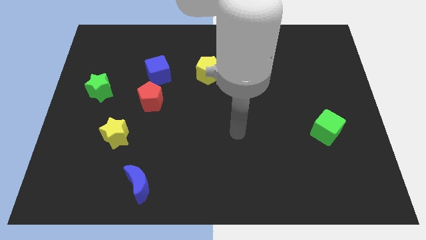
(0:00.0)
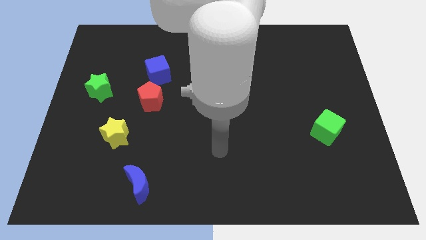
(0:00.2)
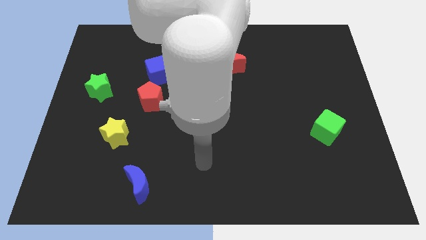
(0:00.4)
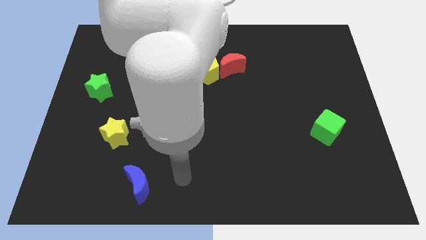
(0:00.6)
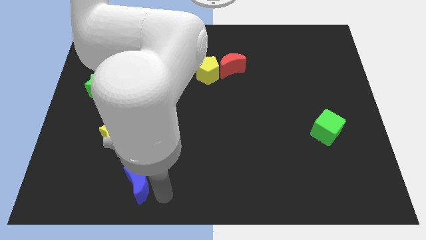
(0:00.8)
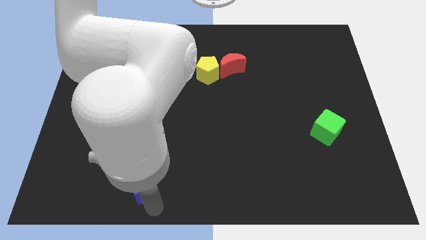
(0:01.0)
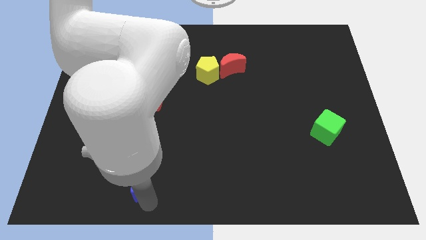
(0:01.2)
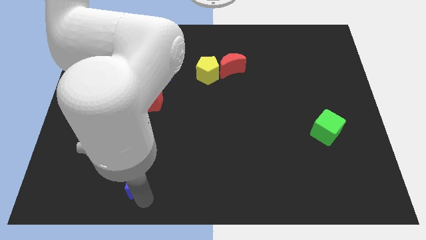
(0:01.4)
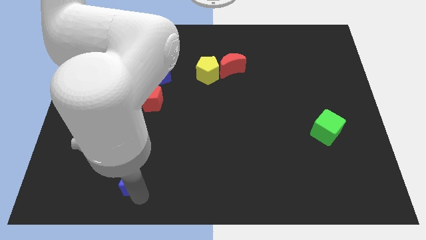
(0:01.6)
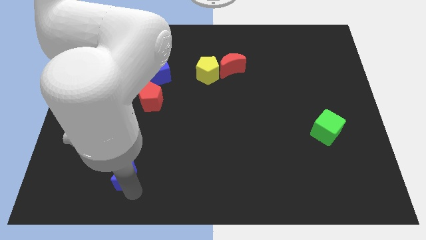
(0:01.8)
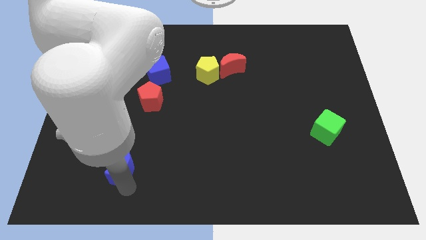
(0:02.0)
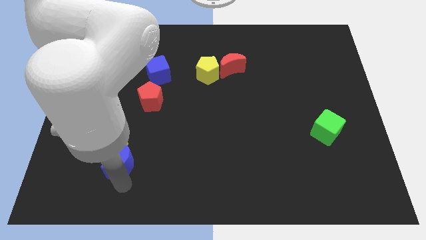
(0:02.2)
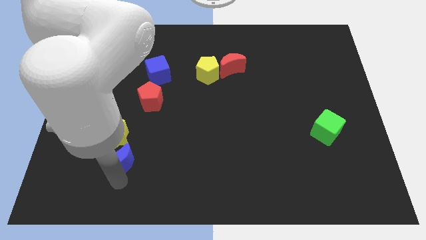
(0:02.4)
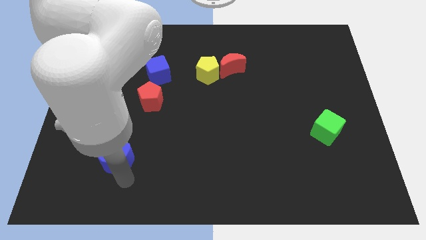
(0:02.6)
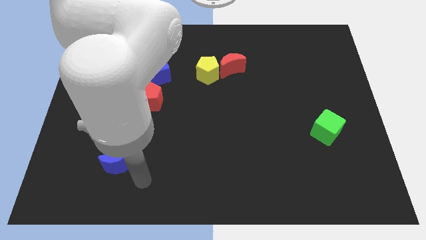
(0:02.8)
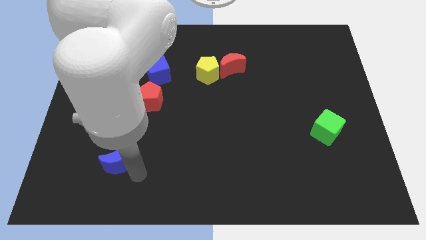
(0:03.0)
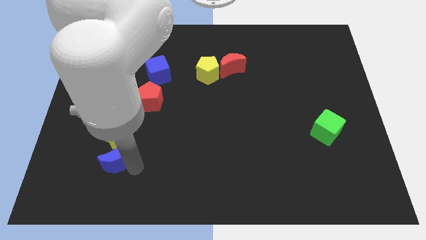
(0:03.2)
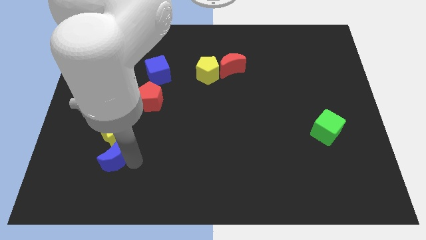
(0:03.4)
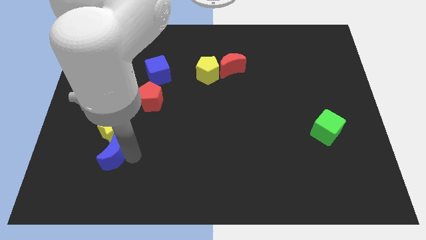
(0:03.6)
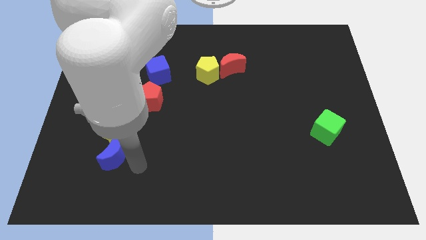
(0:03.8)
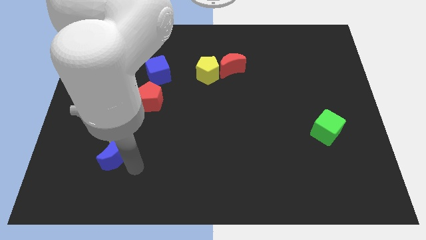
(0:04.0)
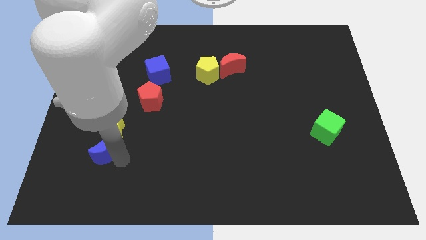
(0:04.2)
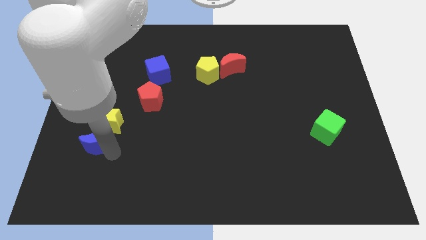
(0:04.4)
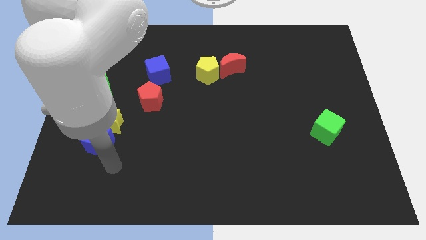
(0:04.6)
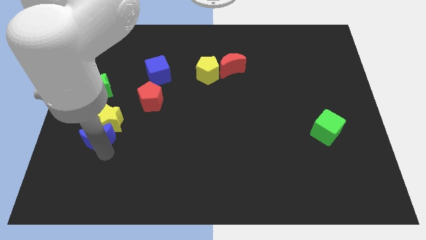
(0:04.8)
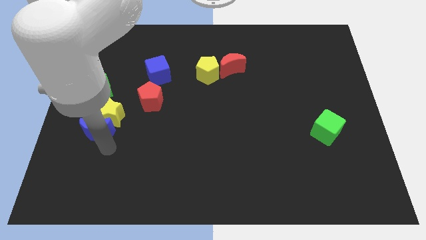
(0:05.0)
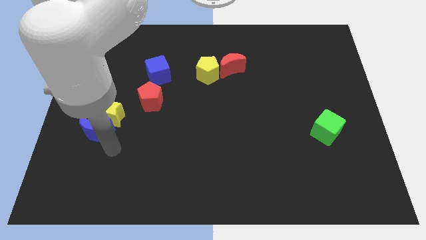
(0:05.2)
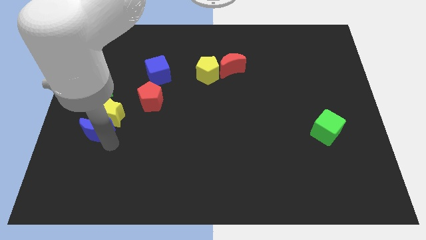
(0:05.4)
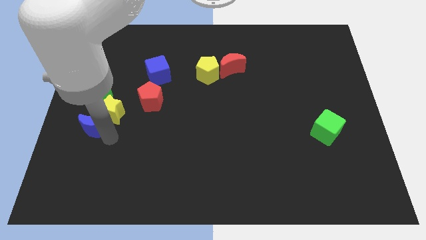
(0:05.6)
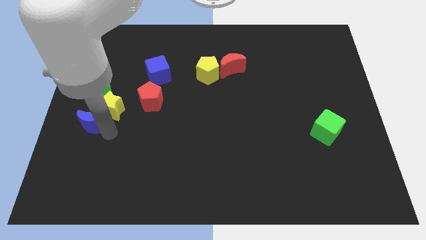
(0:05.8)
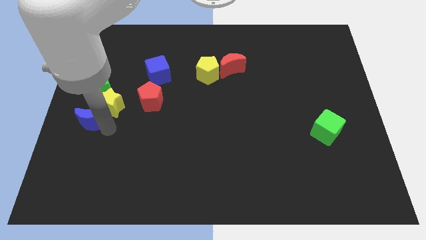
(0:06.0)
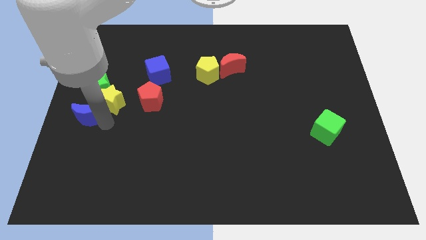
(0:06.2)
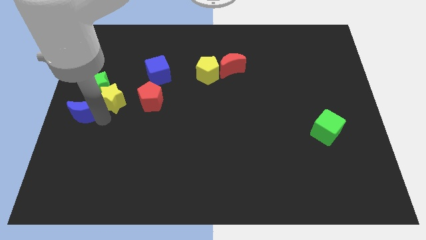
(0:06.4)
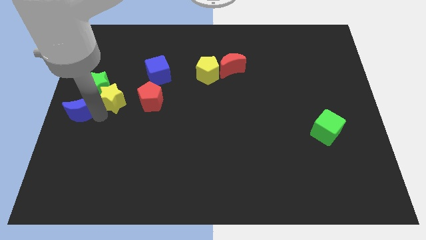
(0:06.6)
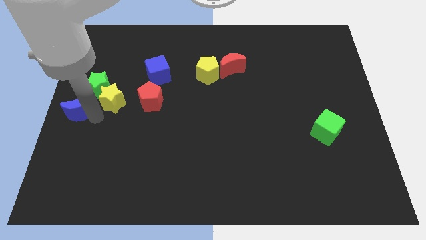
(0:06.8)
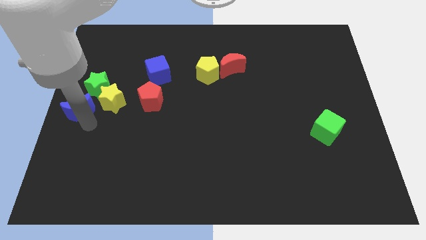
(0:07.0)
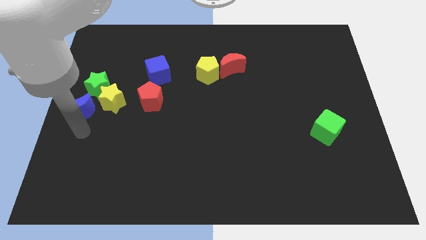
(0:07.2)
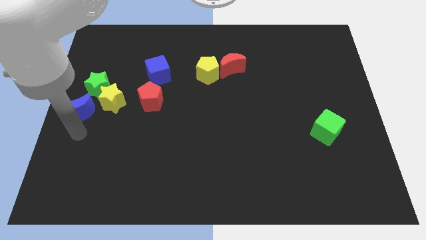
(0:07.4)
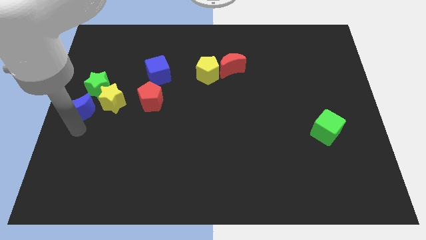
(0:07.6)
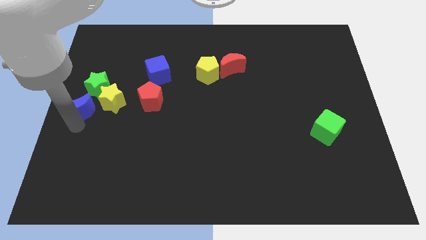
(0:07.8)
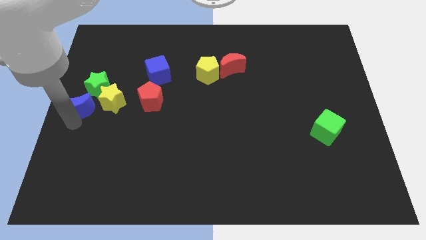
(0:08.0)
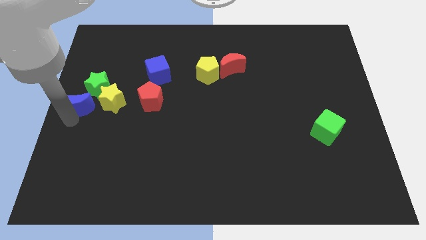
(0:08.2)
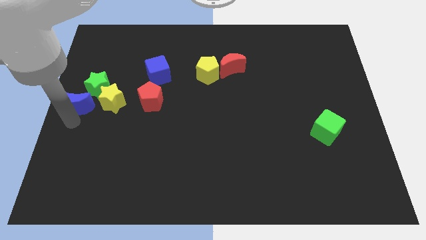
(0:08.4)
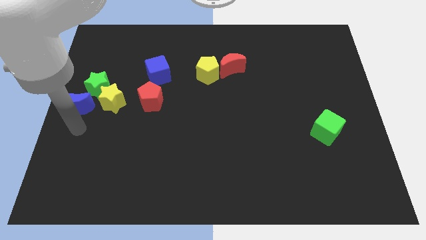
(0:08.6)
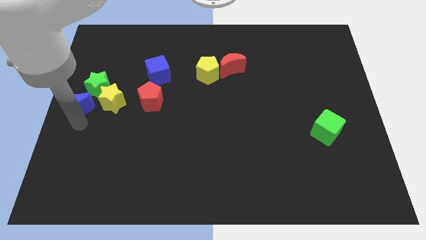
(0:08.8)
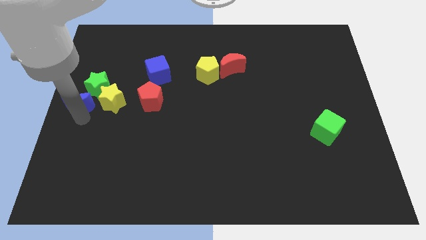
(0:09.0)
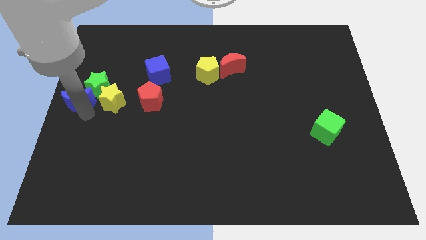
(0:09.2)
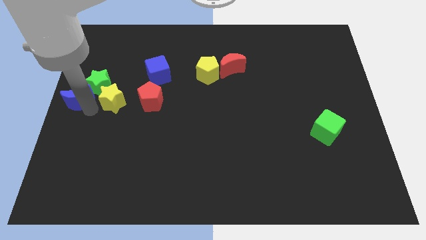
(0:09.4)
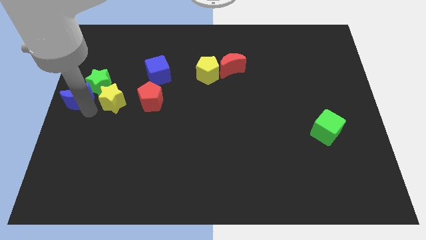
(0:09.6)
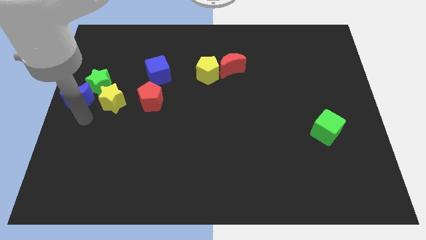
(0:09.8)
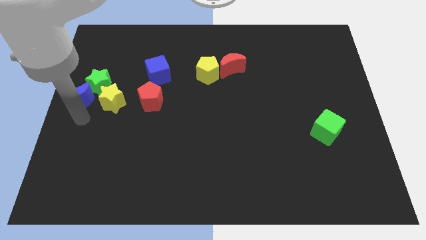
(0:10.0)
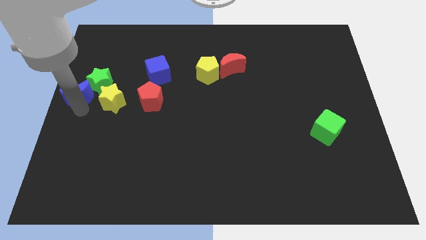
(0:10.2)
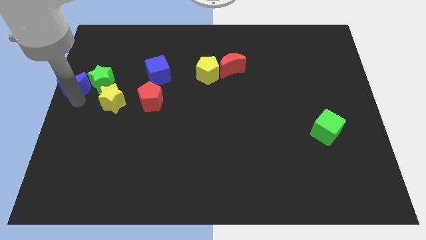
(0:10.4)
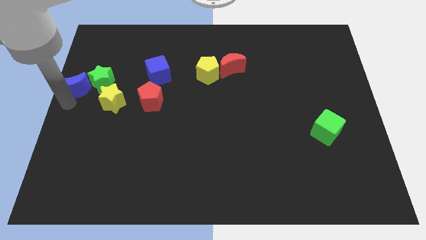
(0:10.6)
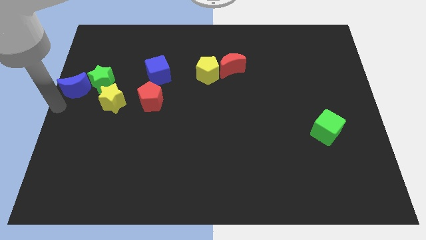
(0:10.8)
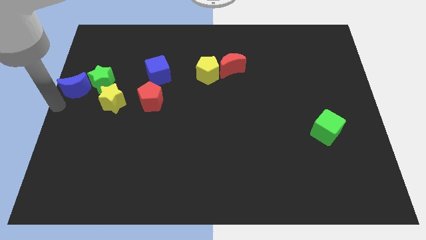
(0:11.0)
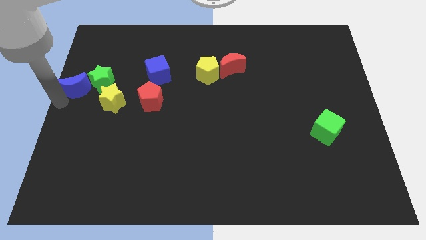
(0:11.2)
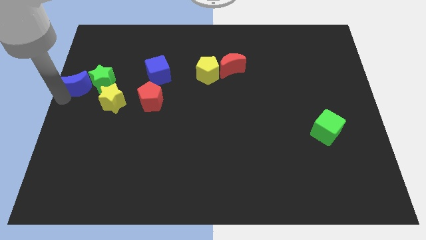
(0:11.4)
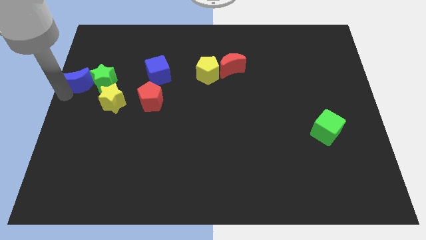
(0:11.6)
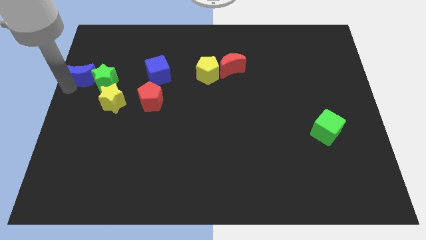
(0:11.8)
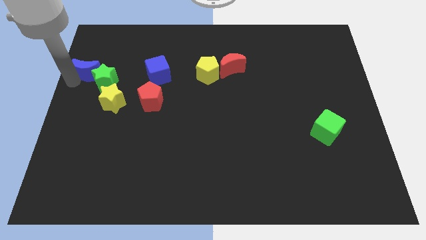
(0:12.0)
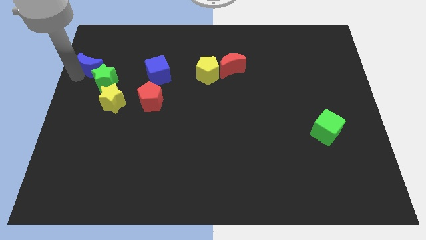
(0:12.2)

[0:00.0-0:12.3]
move the blue moon to the top of the green star

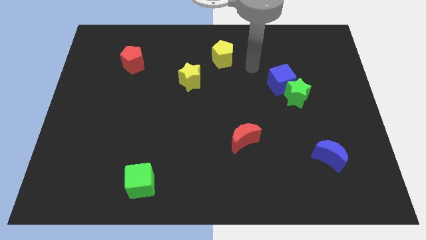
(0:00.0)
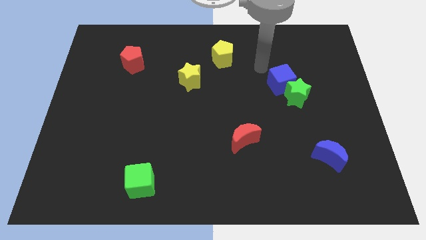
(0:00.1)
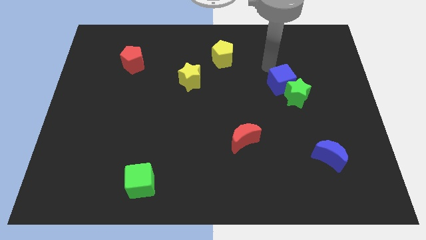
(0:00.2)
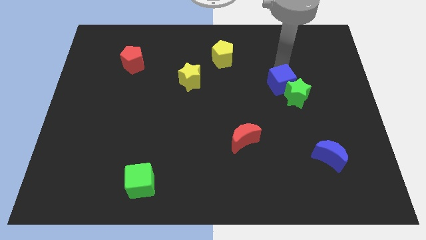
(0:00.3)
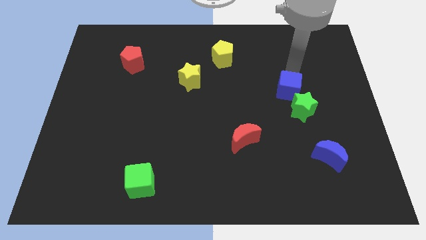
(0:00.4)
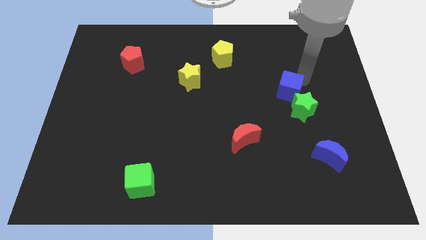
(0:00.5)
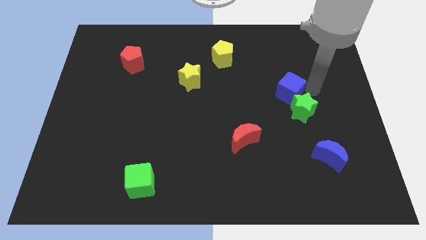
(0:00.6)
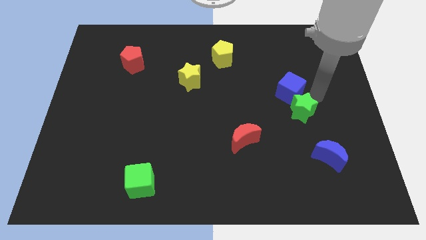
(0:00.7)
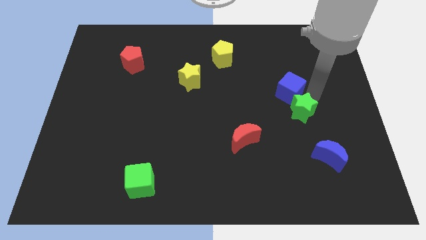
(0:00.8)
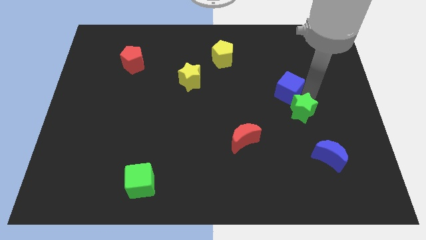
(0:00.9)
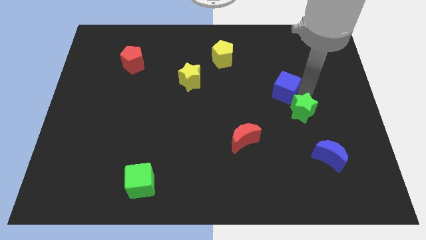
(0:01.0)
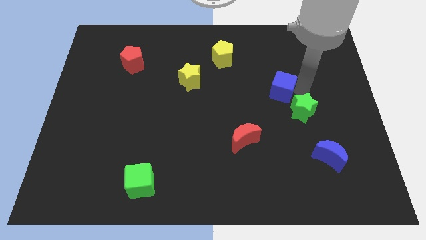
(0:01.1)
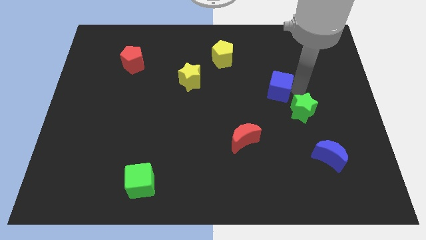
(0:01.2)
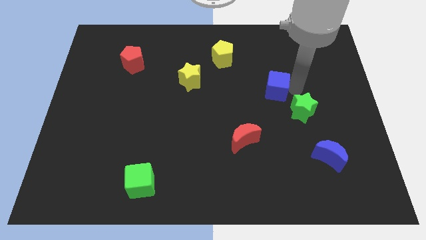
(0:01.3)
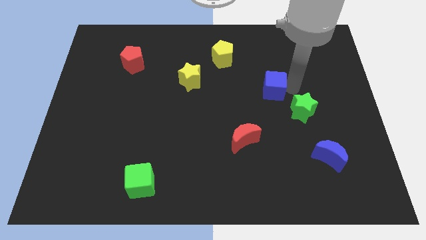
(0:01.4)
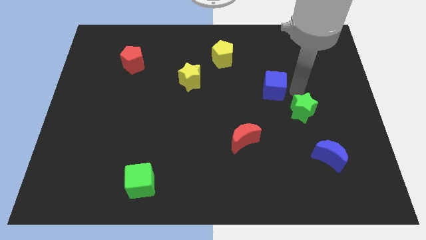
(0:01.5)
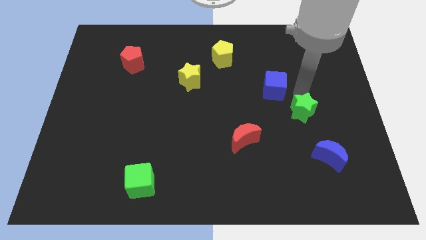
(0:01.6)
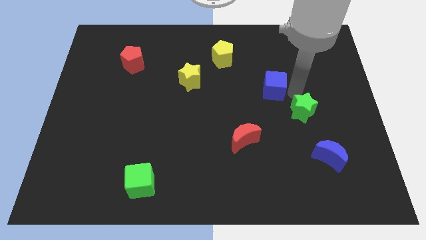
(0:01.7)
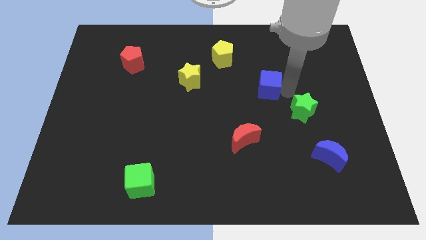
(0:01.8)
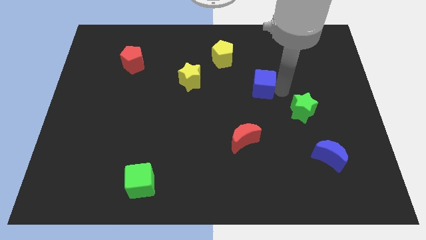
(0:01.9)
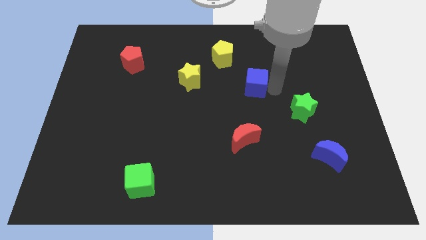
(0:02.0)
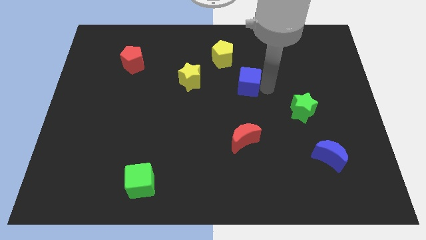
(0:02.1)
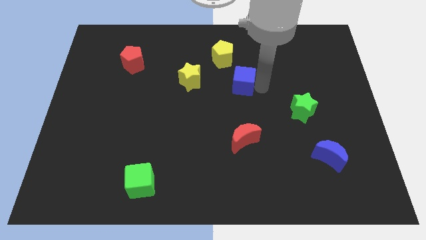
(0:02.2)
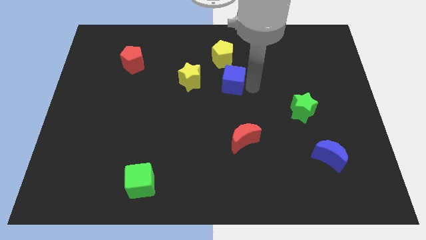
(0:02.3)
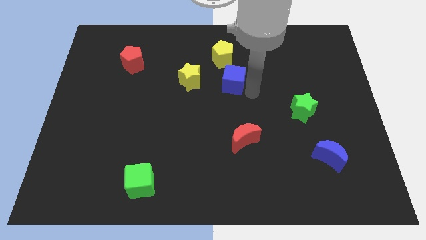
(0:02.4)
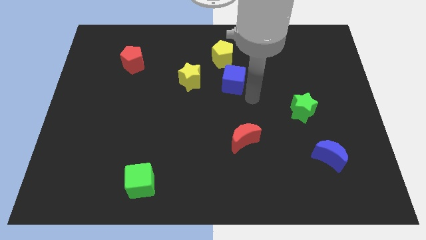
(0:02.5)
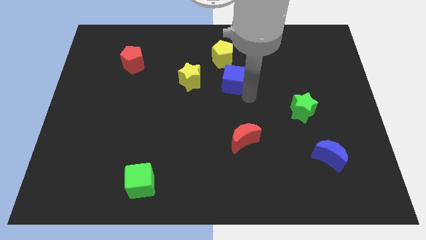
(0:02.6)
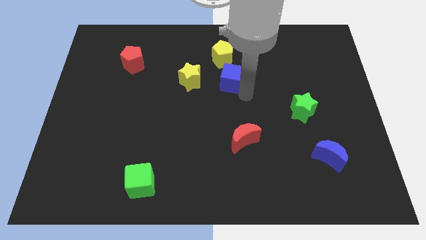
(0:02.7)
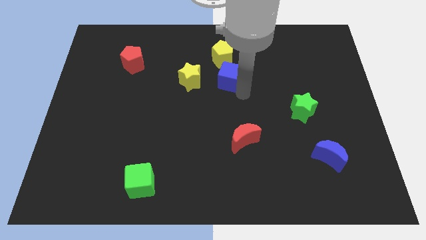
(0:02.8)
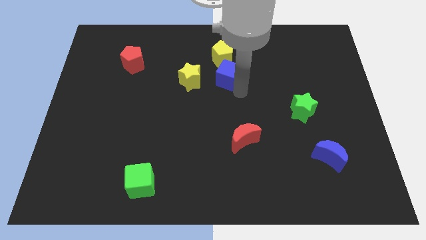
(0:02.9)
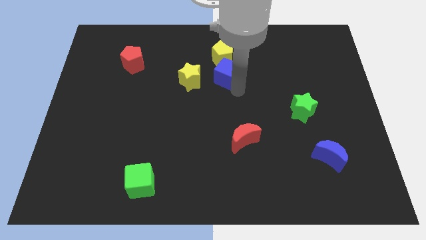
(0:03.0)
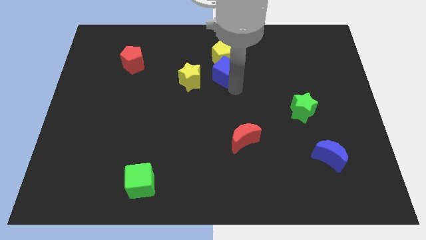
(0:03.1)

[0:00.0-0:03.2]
move the blue cube to the top right of the yellow star
